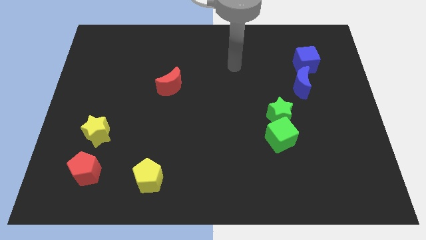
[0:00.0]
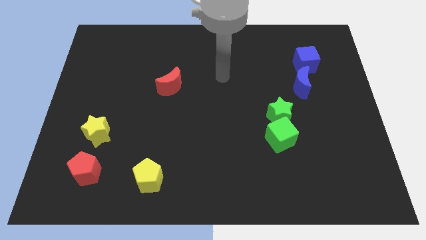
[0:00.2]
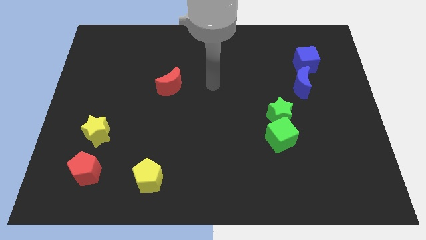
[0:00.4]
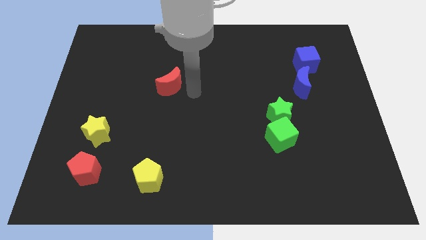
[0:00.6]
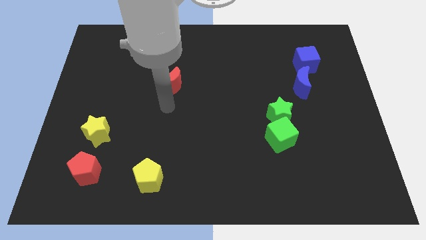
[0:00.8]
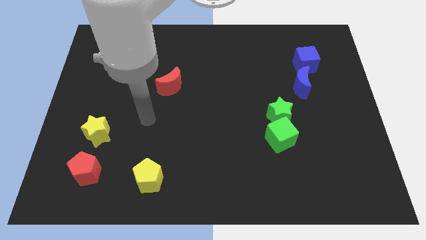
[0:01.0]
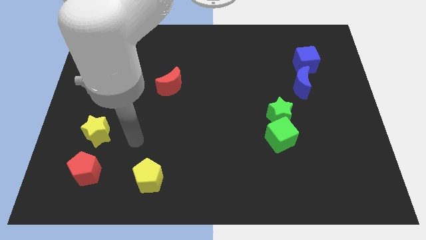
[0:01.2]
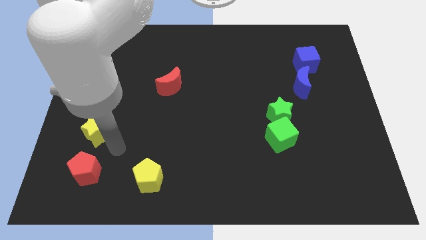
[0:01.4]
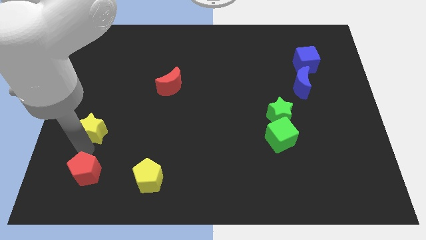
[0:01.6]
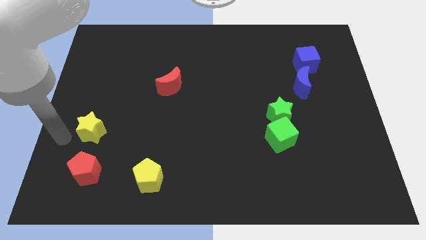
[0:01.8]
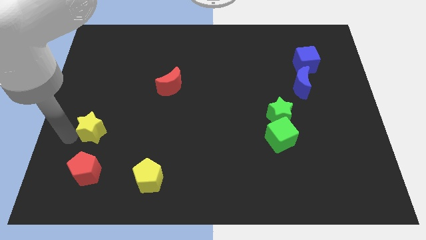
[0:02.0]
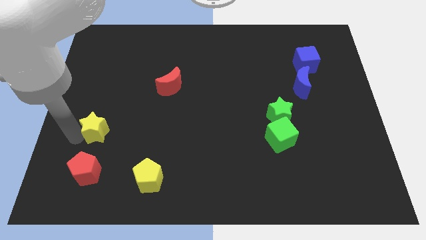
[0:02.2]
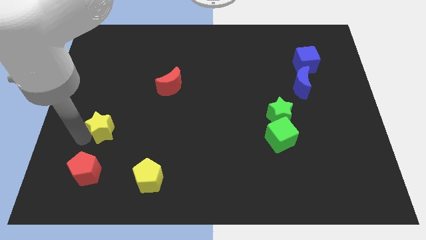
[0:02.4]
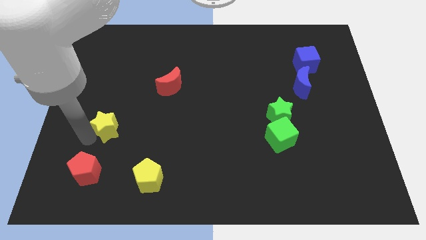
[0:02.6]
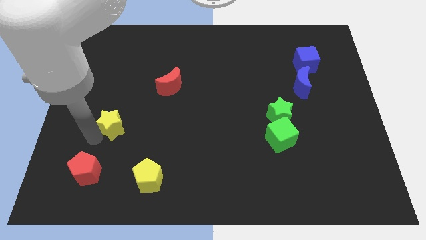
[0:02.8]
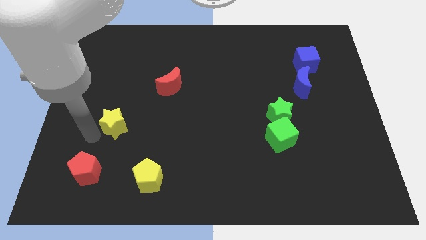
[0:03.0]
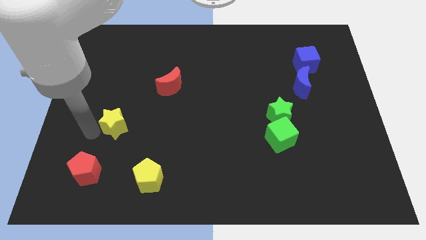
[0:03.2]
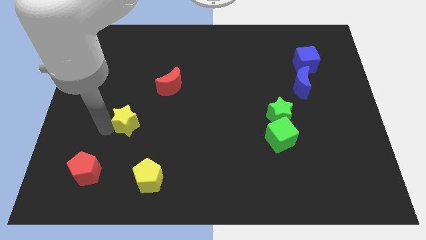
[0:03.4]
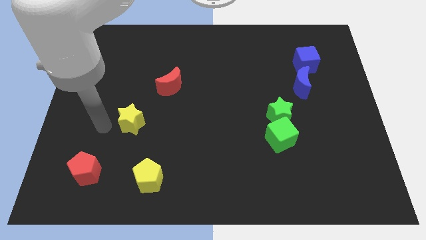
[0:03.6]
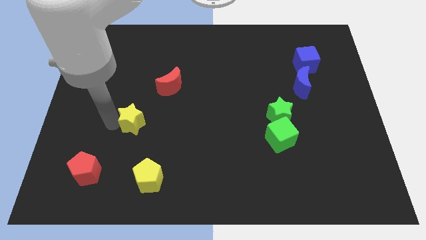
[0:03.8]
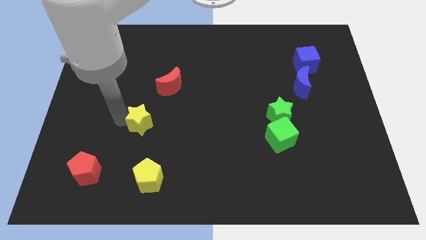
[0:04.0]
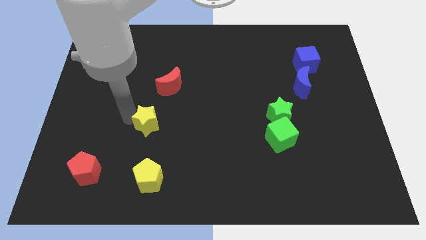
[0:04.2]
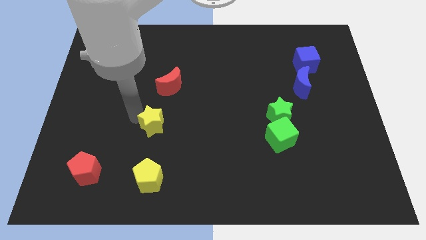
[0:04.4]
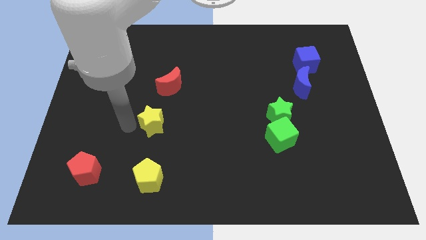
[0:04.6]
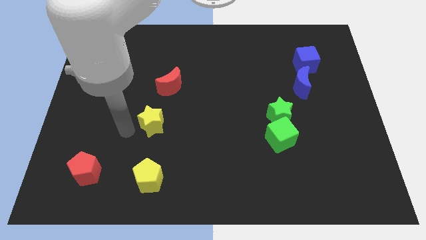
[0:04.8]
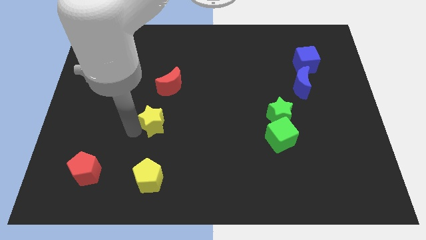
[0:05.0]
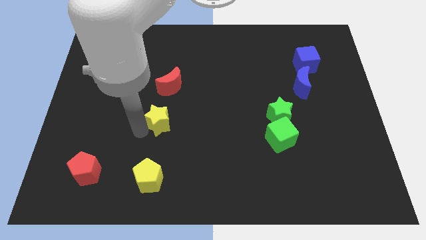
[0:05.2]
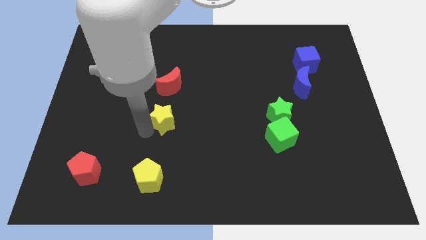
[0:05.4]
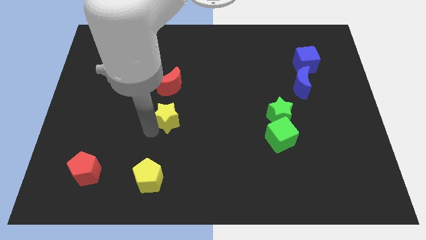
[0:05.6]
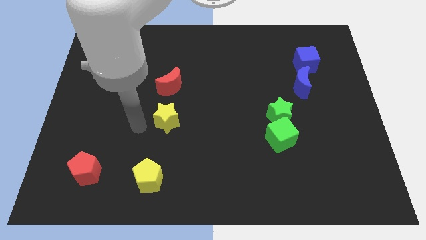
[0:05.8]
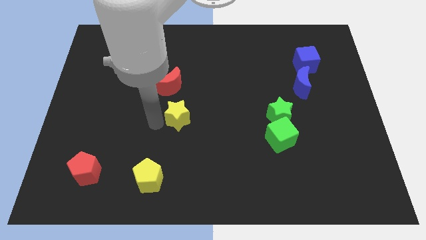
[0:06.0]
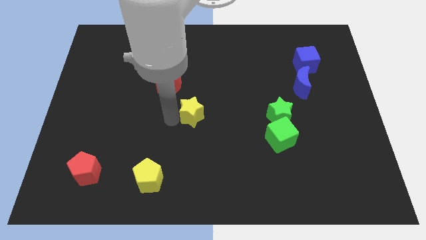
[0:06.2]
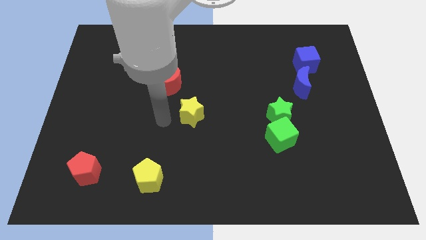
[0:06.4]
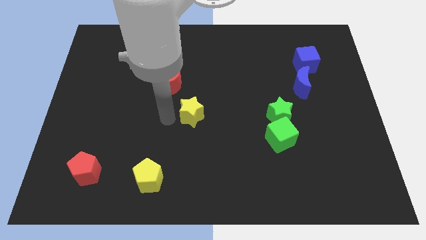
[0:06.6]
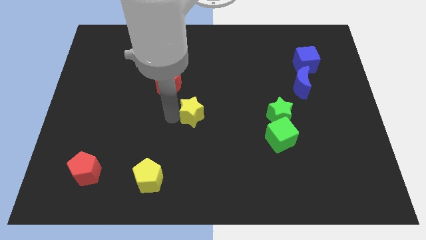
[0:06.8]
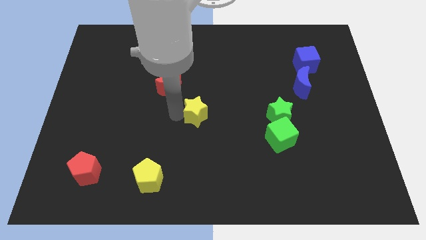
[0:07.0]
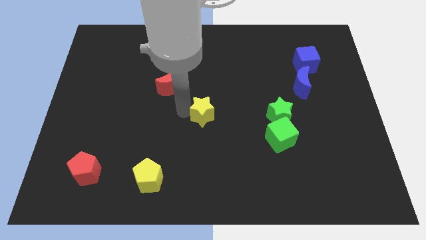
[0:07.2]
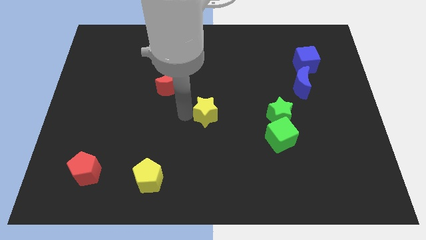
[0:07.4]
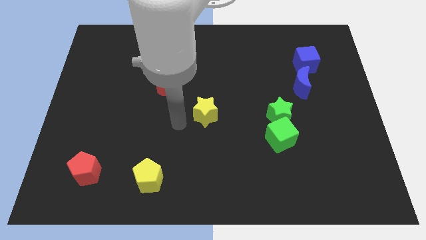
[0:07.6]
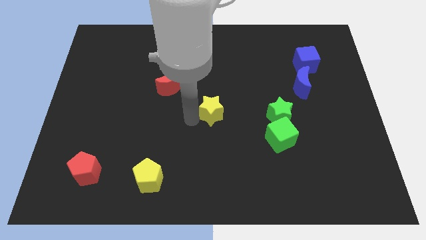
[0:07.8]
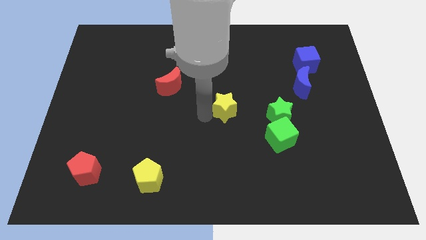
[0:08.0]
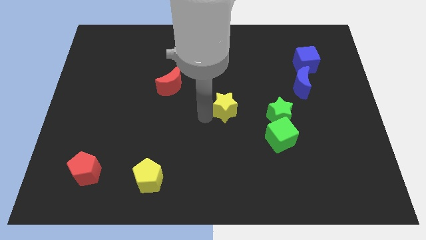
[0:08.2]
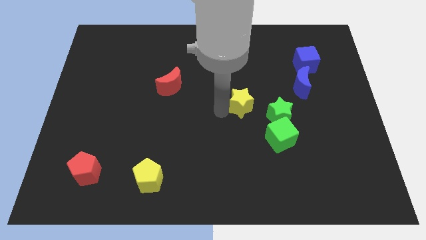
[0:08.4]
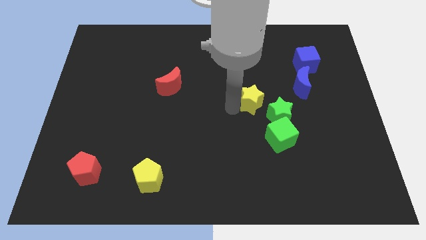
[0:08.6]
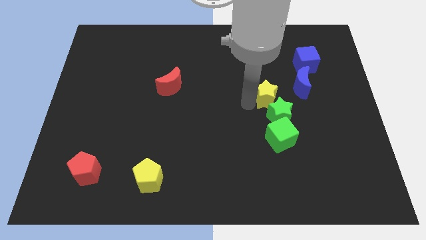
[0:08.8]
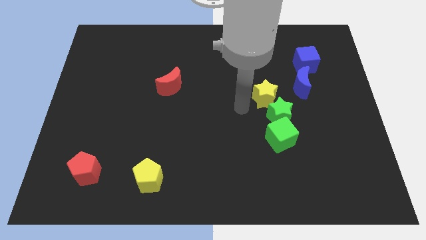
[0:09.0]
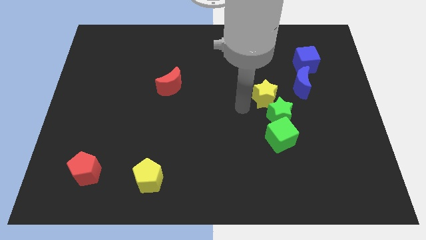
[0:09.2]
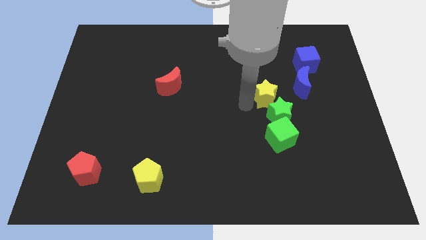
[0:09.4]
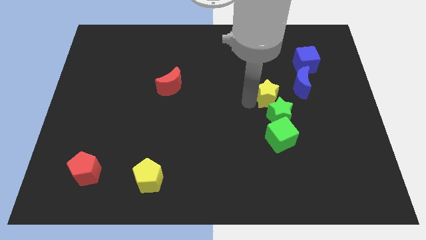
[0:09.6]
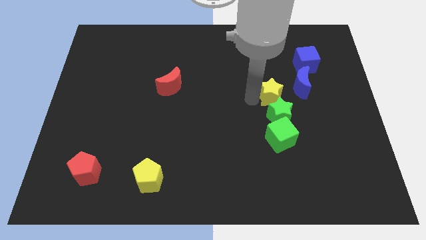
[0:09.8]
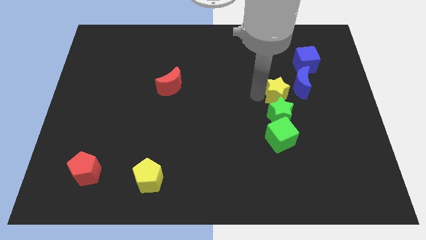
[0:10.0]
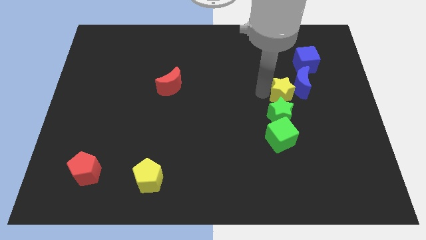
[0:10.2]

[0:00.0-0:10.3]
put the yellow star towards the blue moon

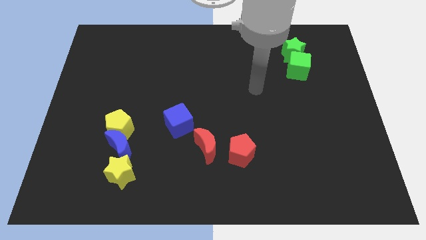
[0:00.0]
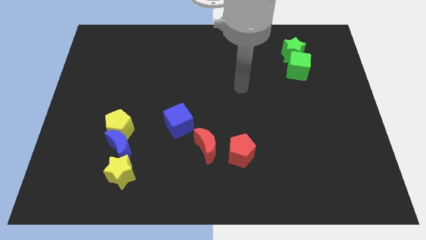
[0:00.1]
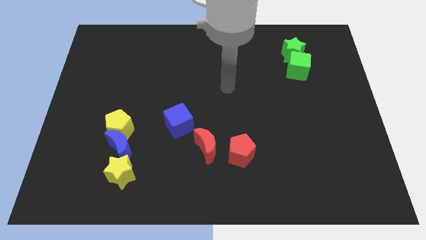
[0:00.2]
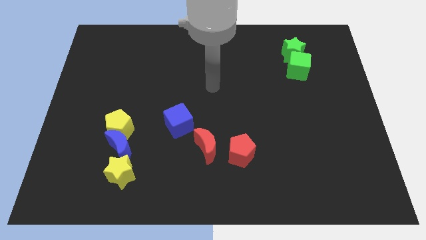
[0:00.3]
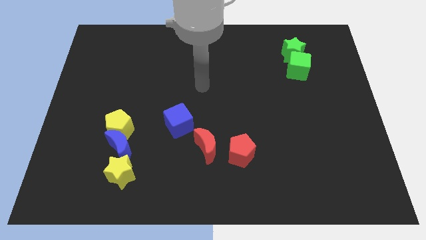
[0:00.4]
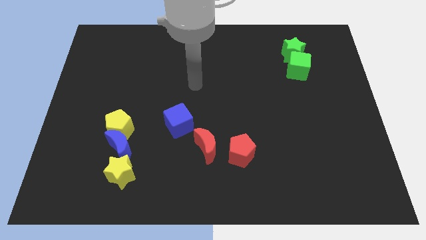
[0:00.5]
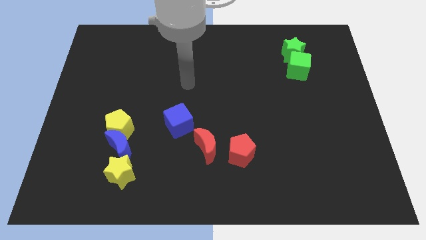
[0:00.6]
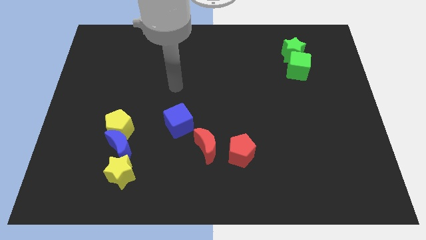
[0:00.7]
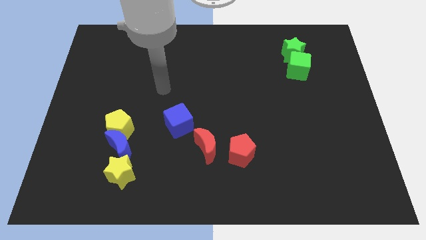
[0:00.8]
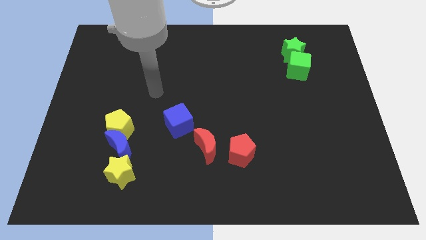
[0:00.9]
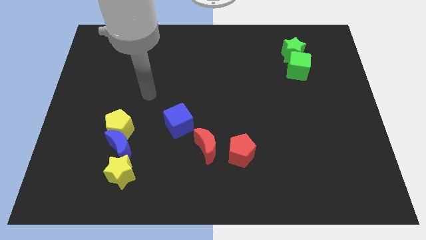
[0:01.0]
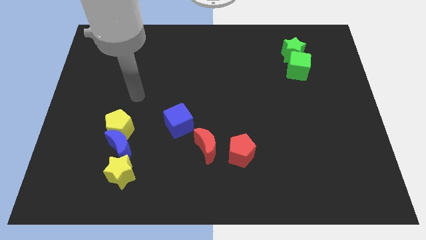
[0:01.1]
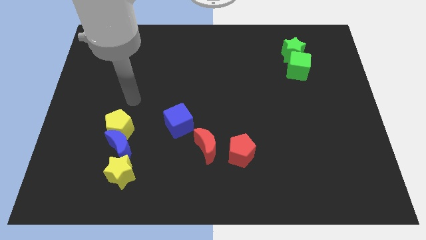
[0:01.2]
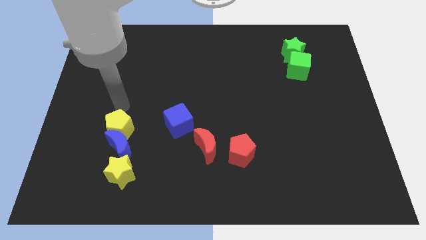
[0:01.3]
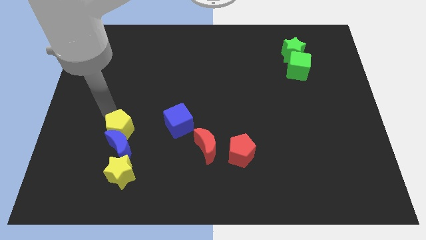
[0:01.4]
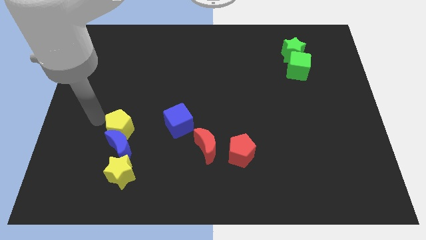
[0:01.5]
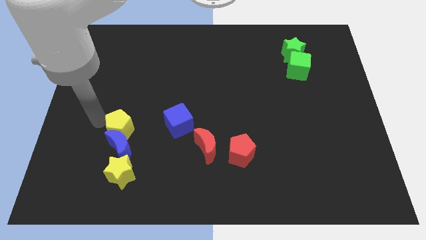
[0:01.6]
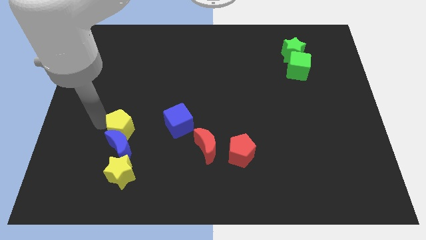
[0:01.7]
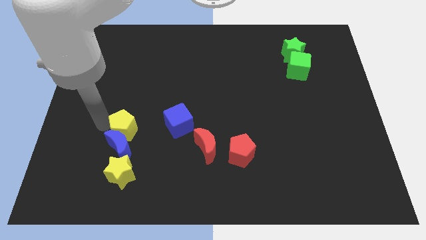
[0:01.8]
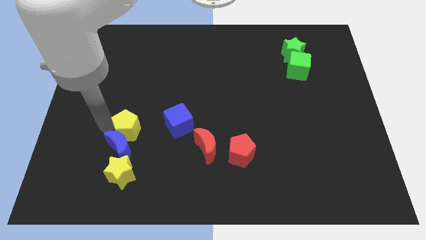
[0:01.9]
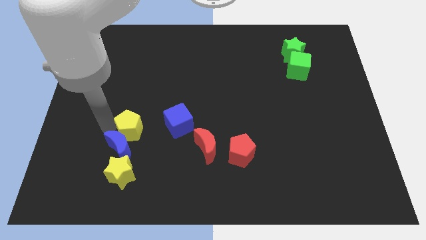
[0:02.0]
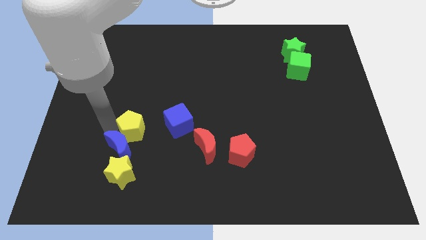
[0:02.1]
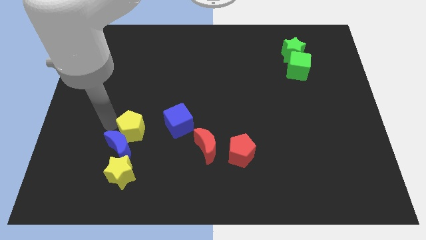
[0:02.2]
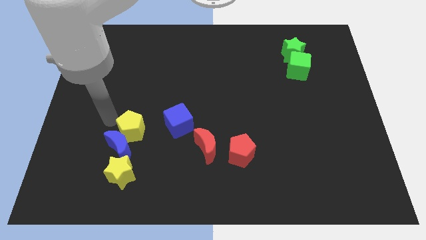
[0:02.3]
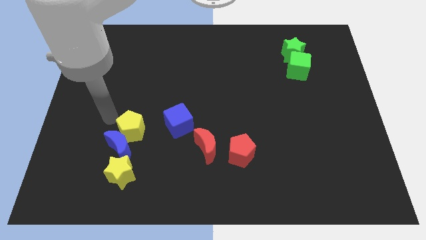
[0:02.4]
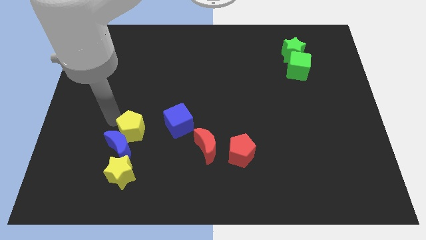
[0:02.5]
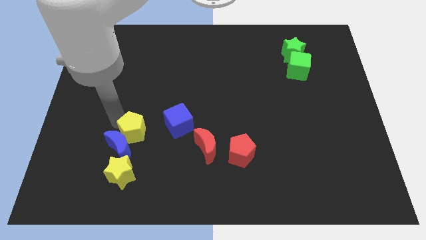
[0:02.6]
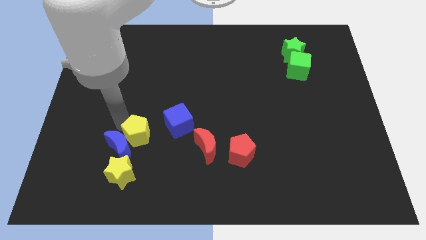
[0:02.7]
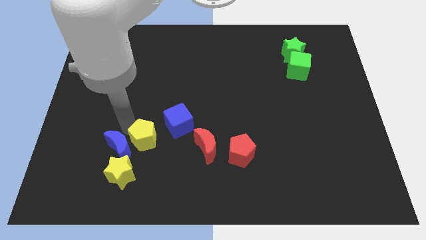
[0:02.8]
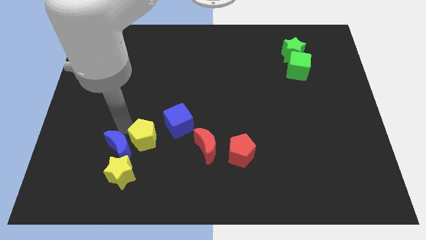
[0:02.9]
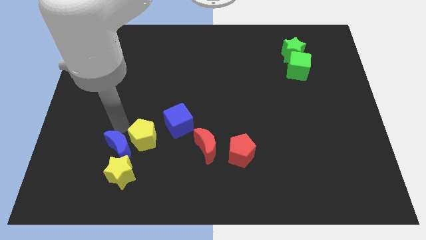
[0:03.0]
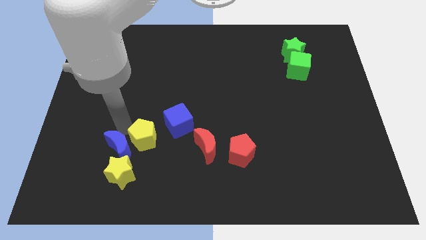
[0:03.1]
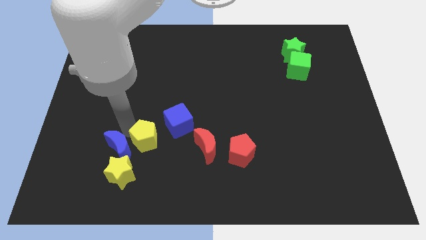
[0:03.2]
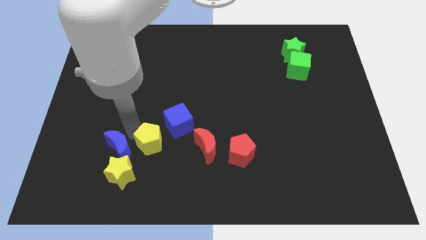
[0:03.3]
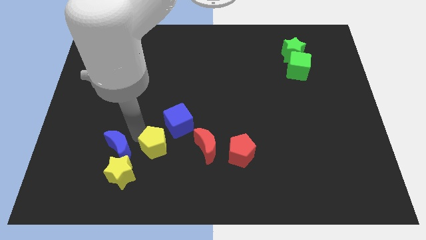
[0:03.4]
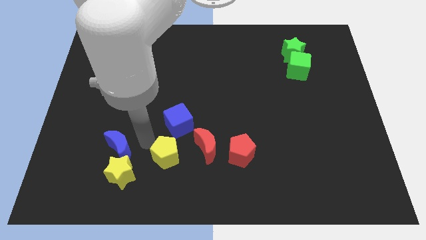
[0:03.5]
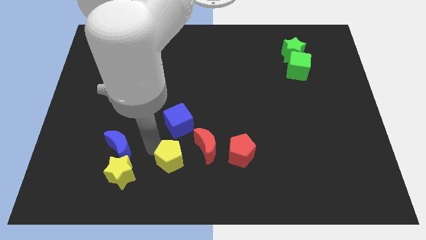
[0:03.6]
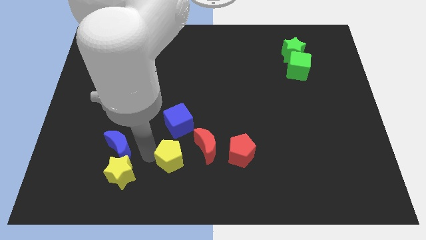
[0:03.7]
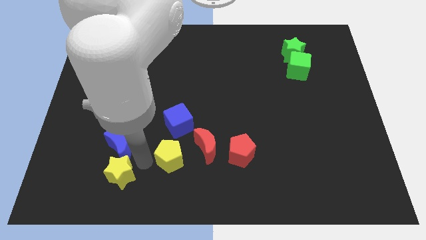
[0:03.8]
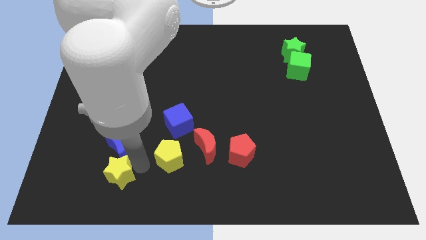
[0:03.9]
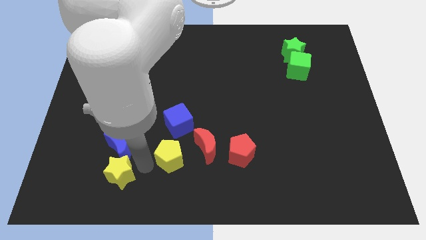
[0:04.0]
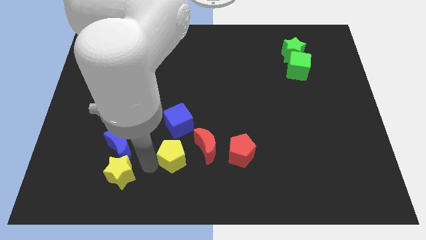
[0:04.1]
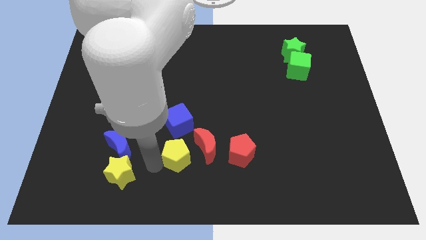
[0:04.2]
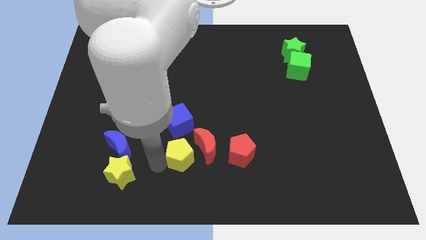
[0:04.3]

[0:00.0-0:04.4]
put the yellow pentagon to the red moon
